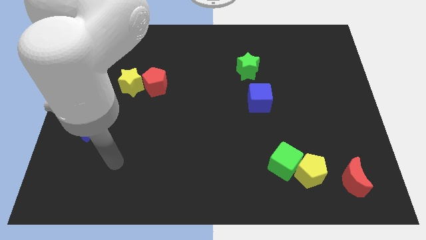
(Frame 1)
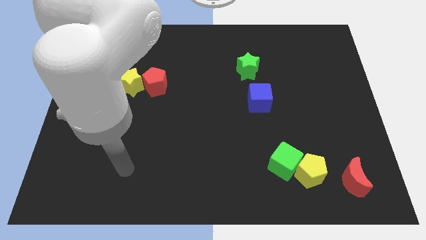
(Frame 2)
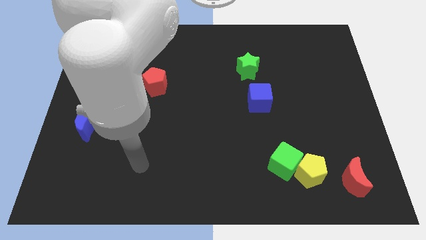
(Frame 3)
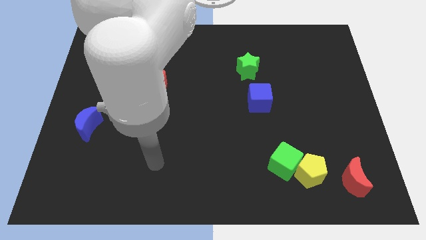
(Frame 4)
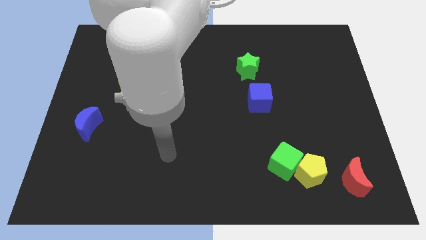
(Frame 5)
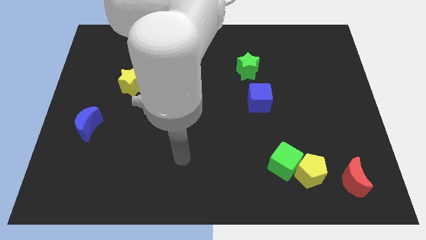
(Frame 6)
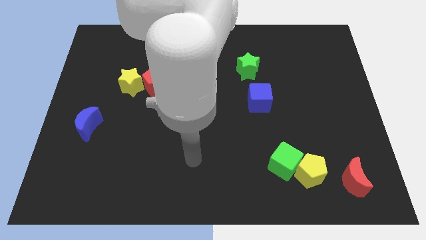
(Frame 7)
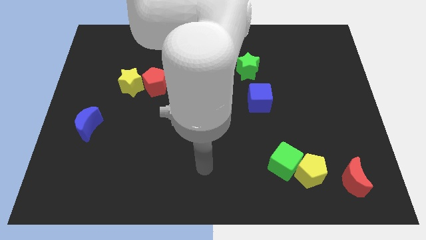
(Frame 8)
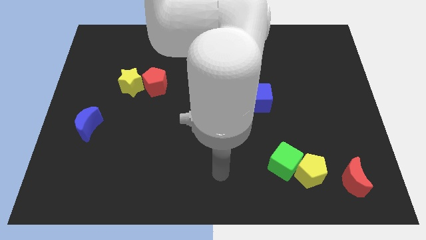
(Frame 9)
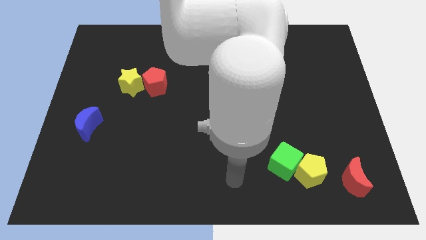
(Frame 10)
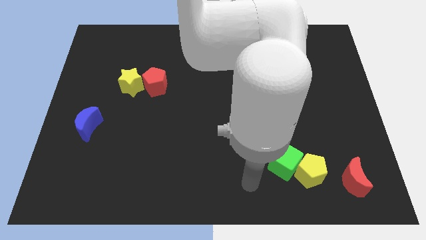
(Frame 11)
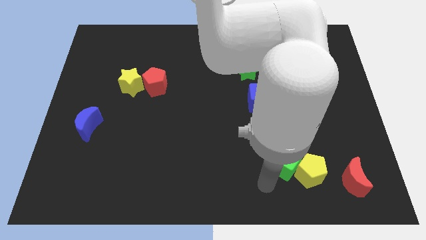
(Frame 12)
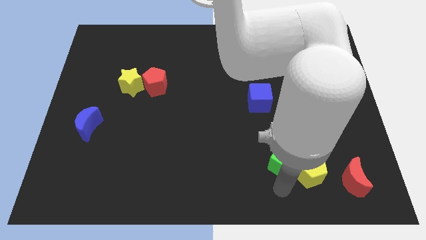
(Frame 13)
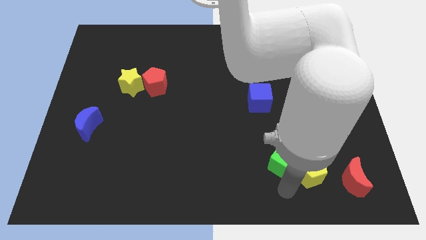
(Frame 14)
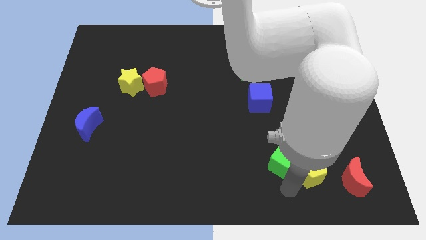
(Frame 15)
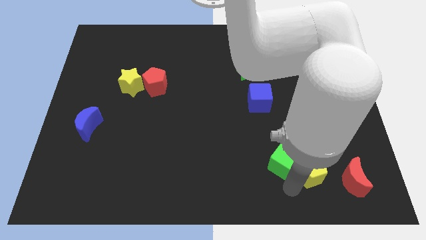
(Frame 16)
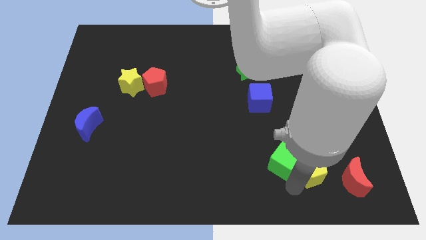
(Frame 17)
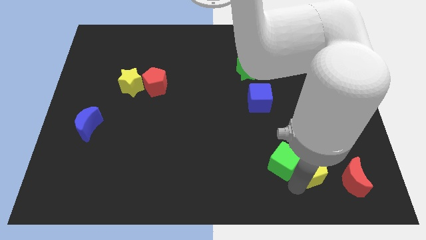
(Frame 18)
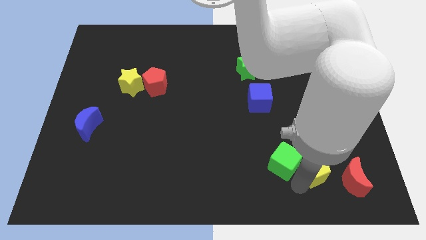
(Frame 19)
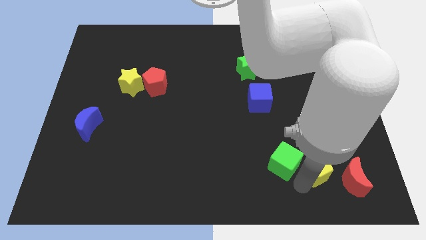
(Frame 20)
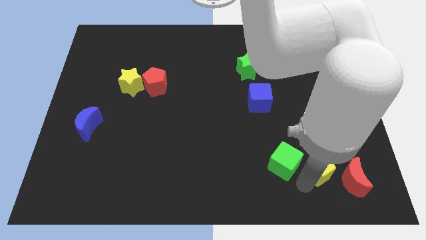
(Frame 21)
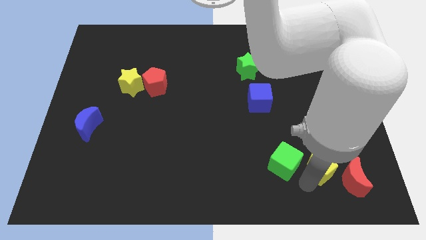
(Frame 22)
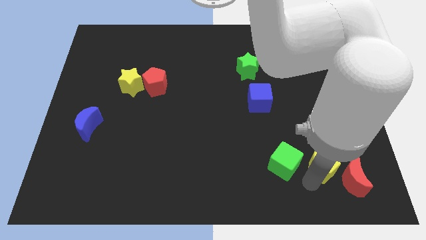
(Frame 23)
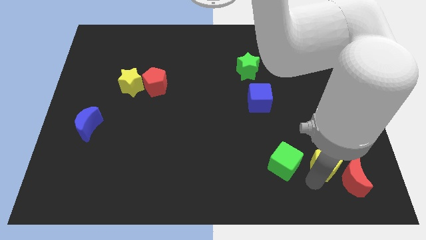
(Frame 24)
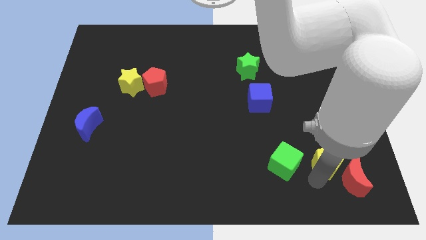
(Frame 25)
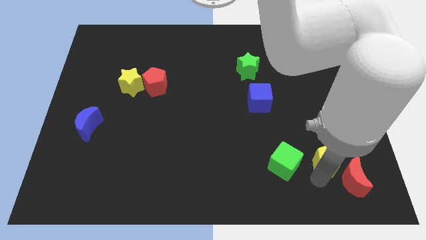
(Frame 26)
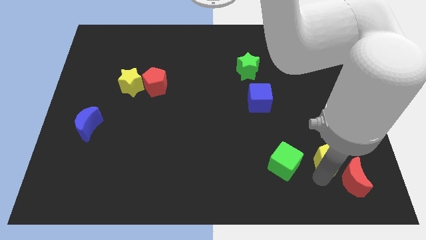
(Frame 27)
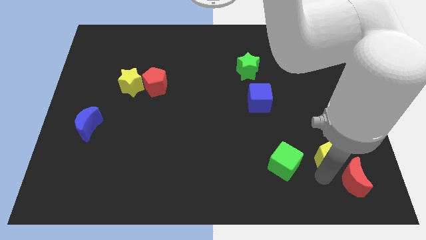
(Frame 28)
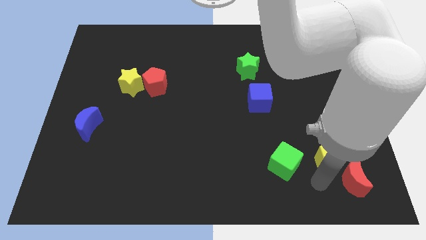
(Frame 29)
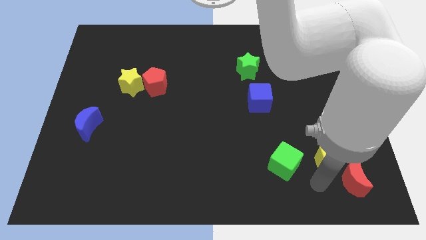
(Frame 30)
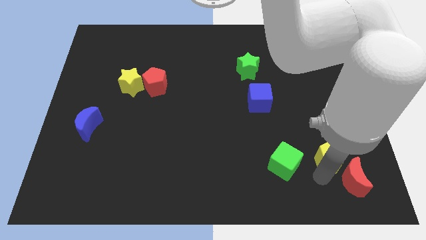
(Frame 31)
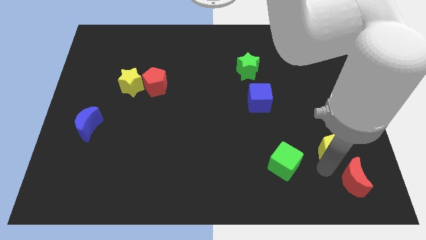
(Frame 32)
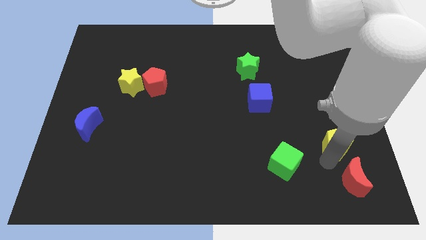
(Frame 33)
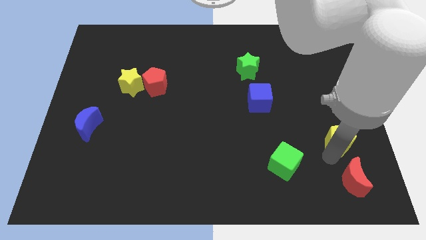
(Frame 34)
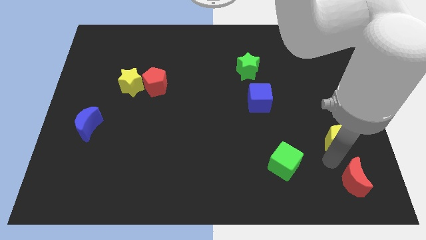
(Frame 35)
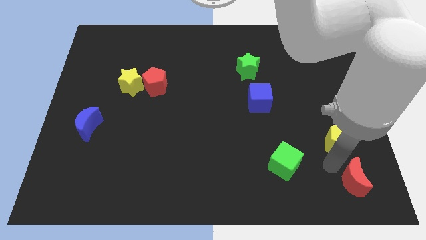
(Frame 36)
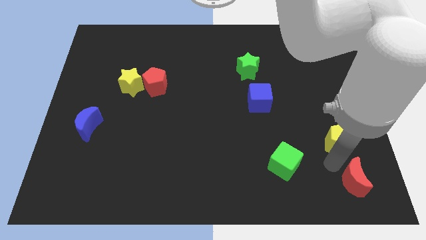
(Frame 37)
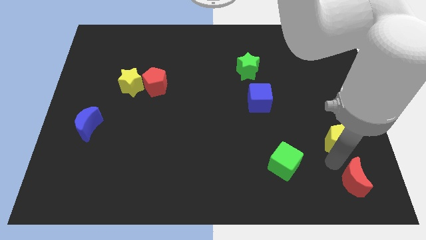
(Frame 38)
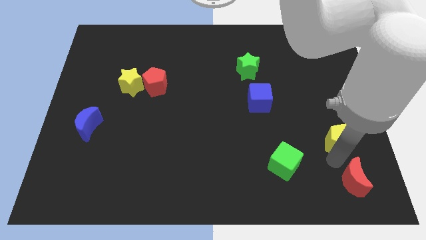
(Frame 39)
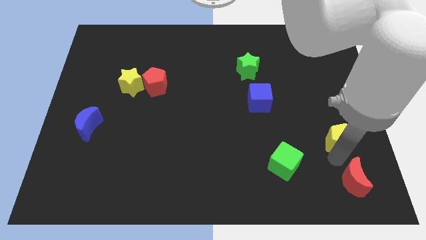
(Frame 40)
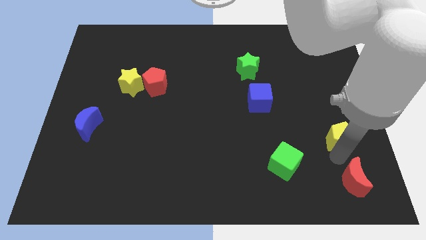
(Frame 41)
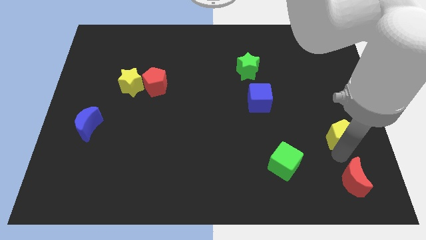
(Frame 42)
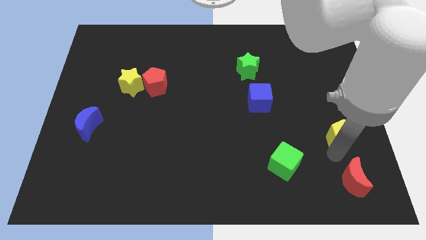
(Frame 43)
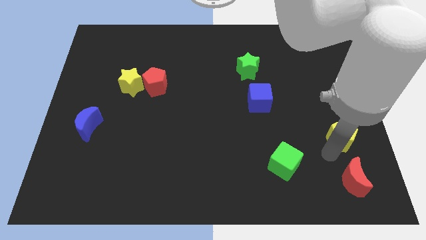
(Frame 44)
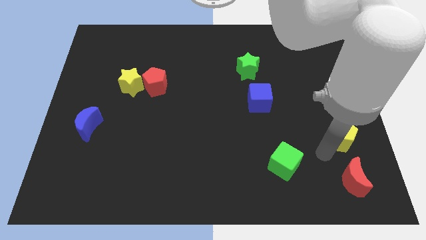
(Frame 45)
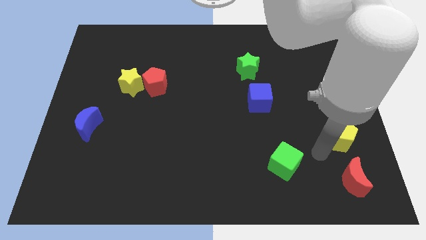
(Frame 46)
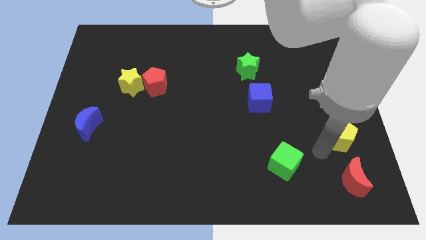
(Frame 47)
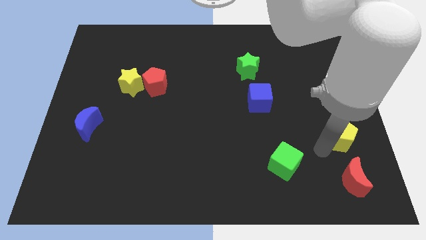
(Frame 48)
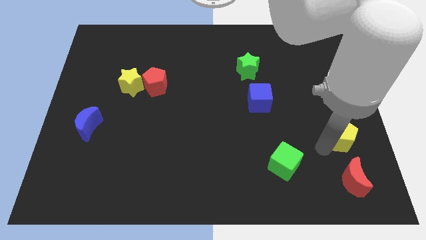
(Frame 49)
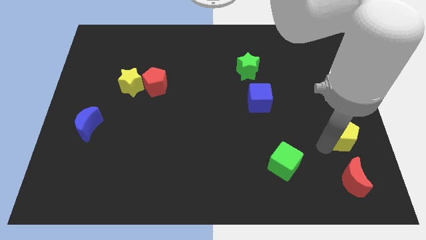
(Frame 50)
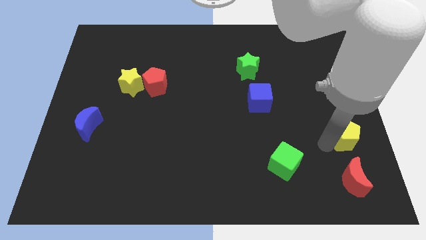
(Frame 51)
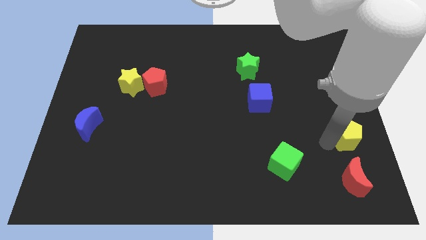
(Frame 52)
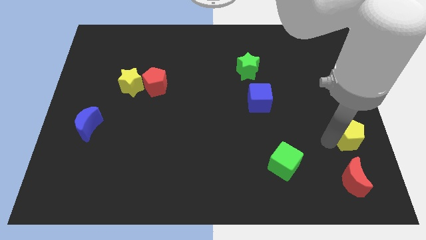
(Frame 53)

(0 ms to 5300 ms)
push the yellow pentagon to the center right

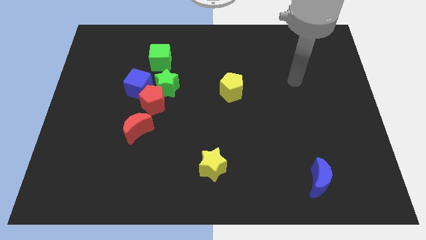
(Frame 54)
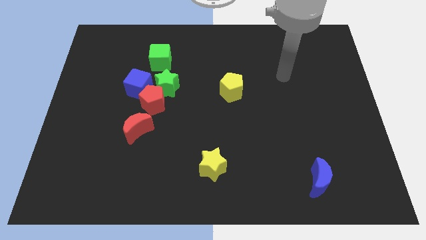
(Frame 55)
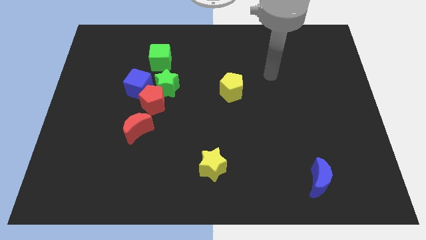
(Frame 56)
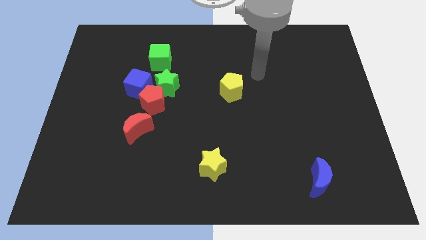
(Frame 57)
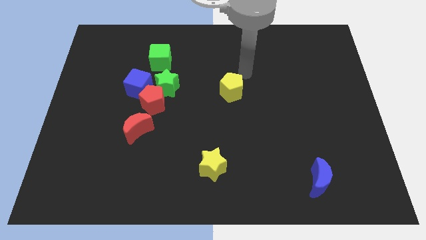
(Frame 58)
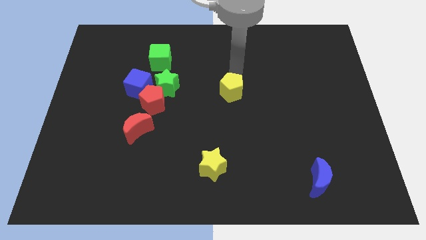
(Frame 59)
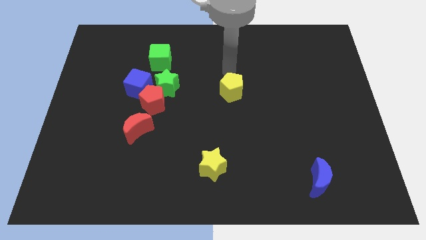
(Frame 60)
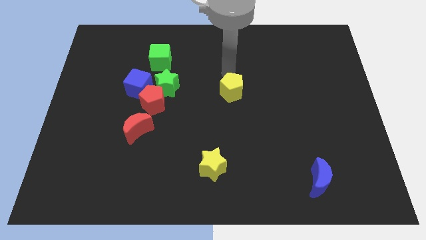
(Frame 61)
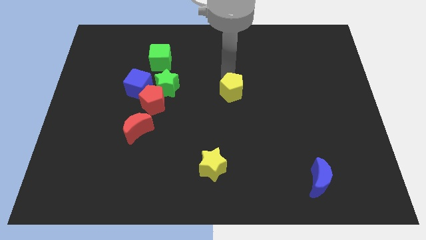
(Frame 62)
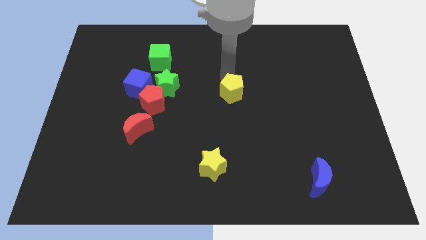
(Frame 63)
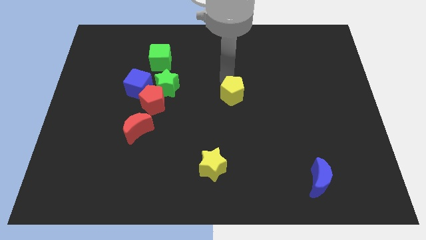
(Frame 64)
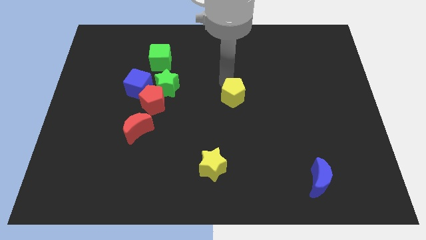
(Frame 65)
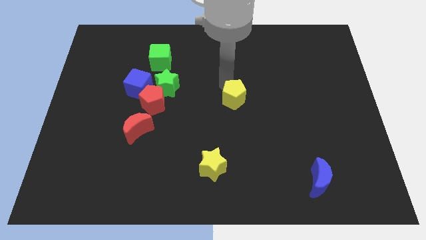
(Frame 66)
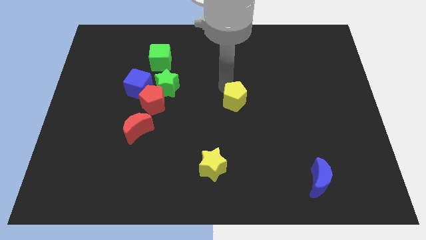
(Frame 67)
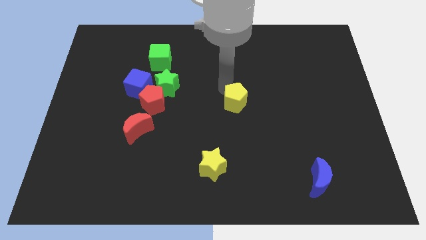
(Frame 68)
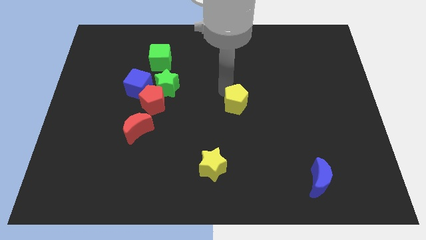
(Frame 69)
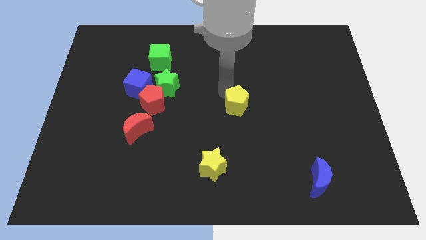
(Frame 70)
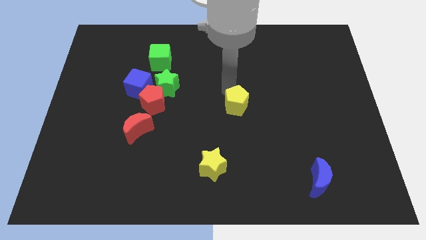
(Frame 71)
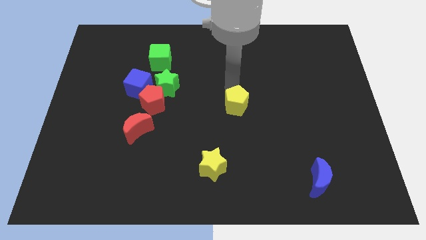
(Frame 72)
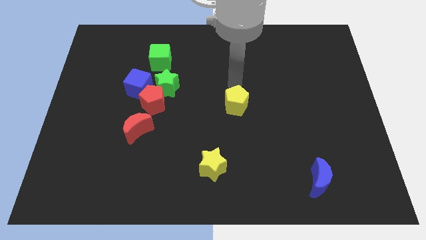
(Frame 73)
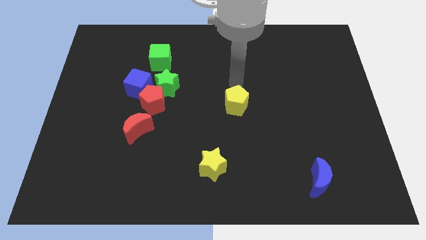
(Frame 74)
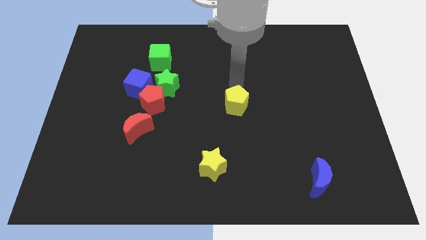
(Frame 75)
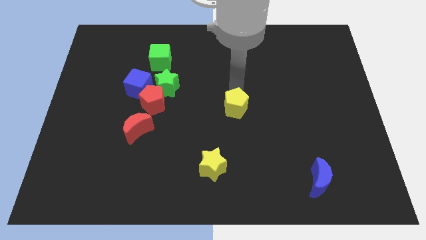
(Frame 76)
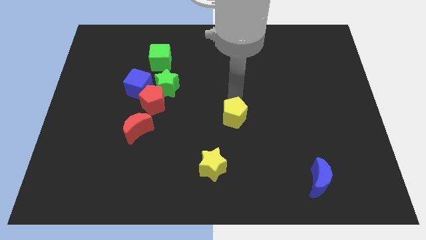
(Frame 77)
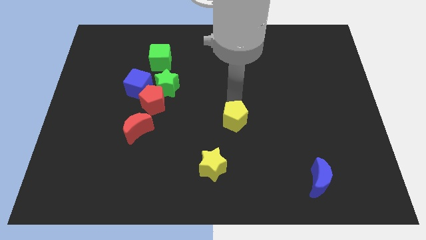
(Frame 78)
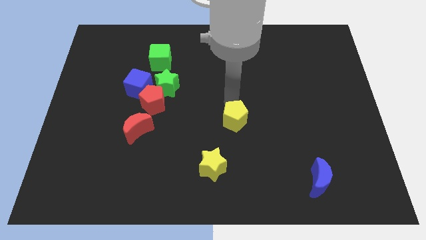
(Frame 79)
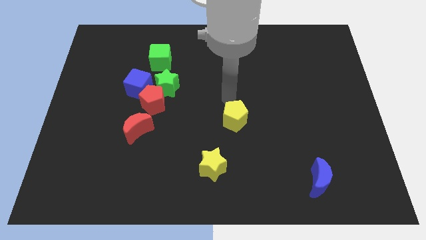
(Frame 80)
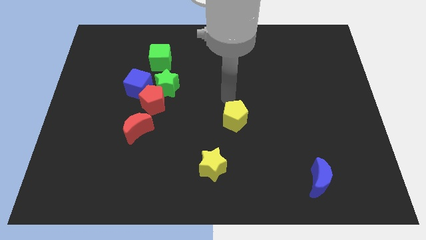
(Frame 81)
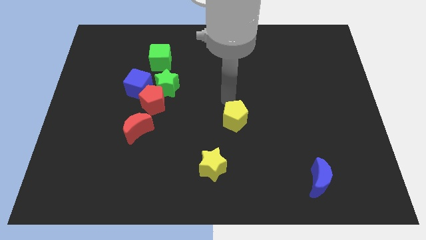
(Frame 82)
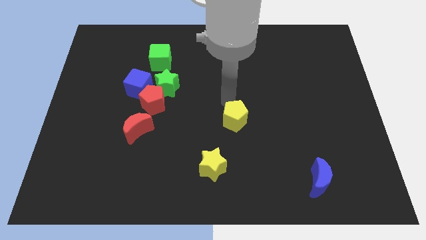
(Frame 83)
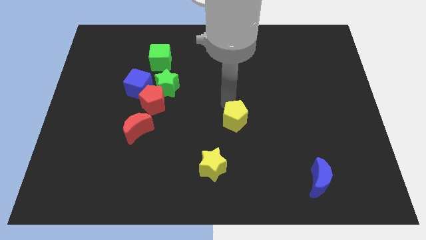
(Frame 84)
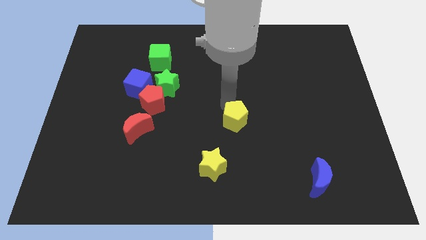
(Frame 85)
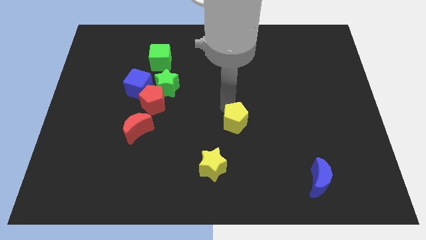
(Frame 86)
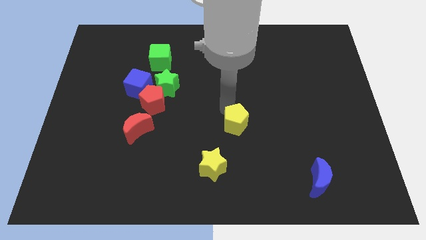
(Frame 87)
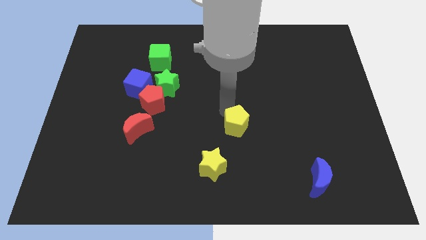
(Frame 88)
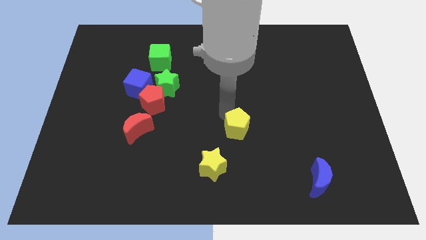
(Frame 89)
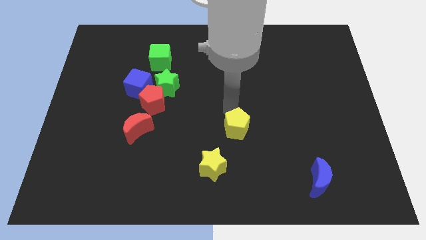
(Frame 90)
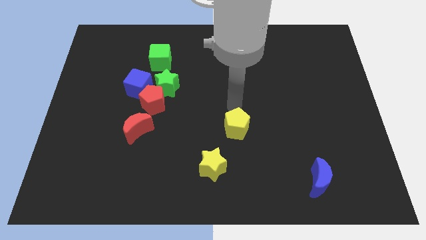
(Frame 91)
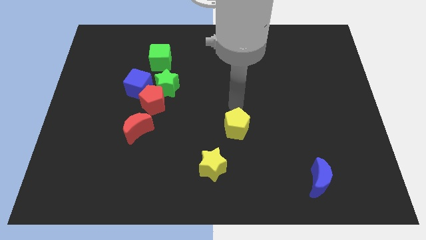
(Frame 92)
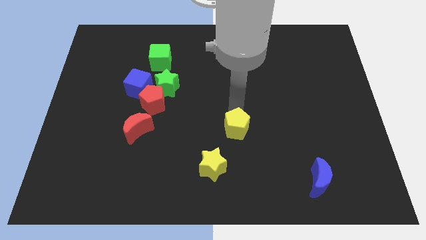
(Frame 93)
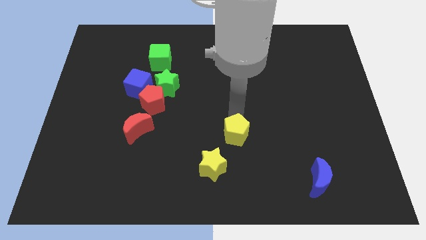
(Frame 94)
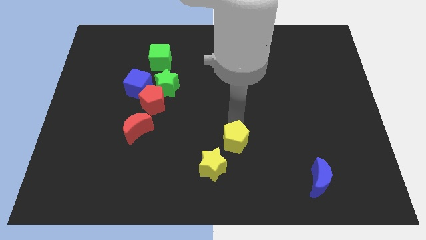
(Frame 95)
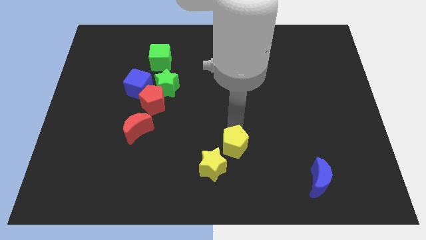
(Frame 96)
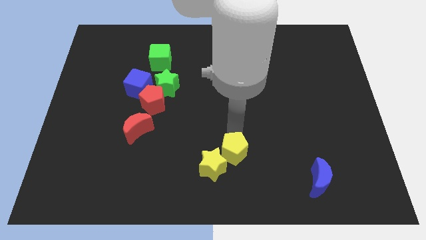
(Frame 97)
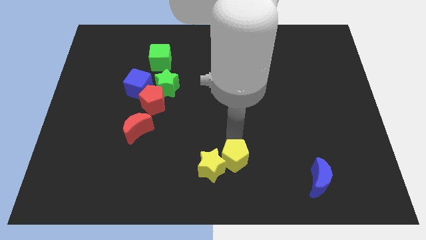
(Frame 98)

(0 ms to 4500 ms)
put the yellow pentagon to the bottom
